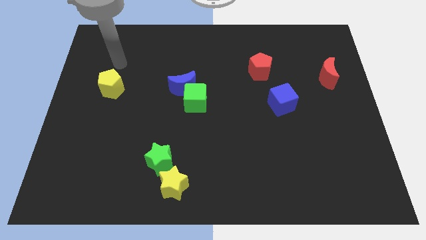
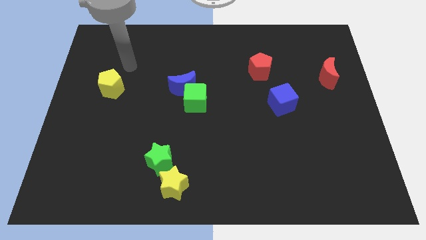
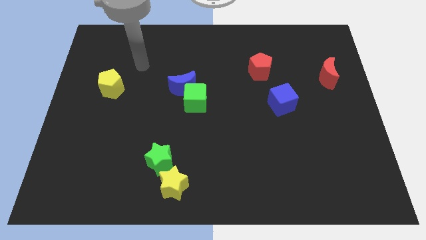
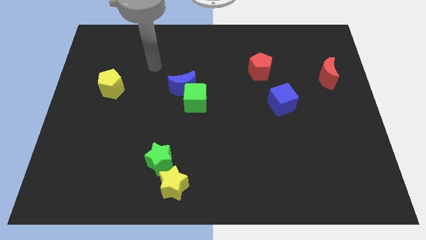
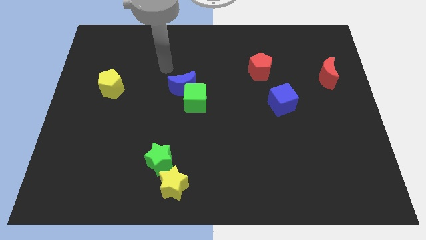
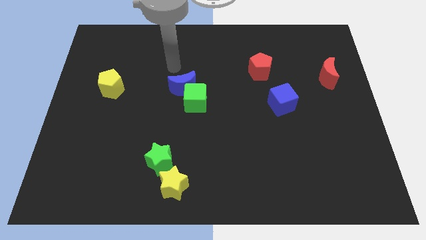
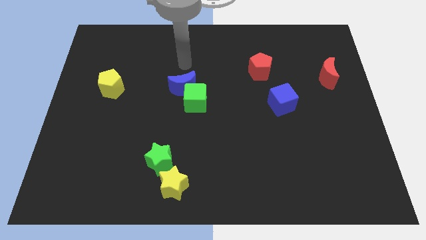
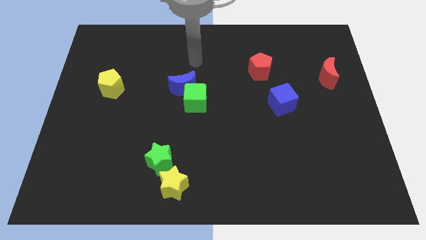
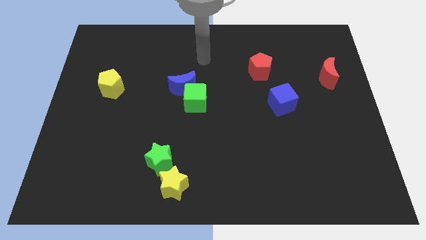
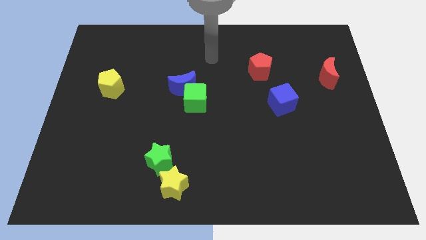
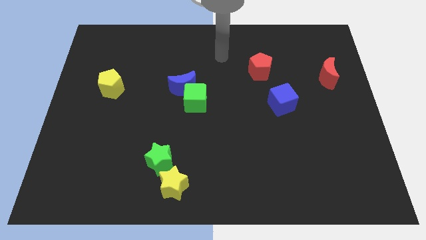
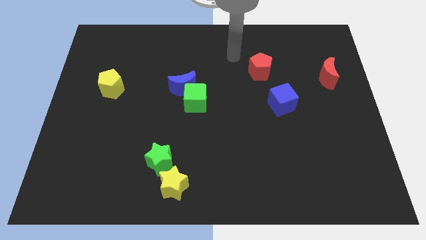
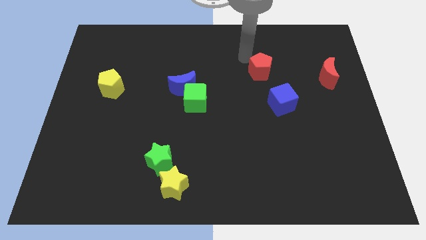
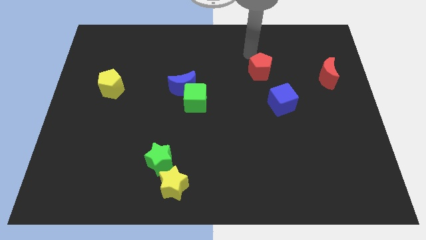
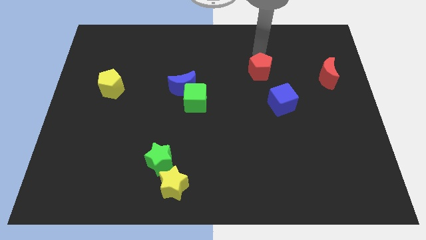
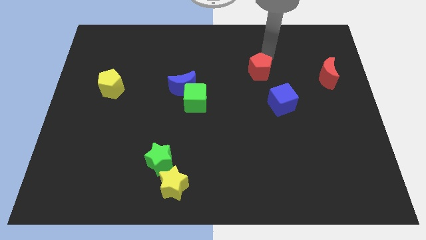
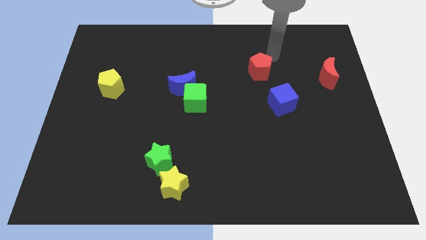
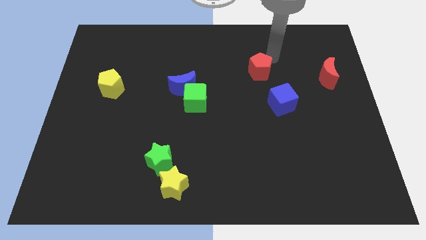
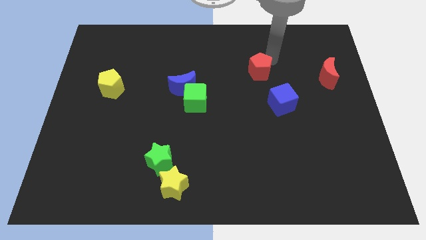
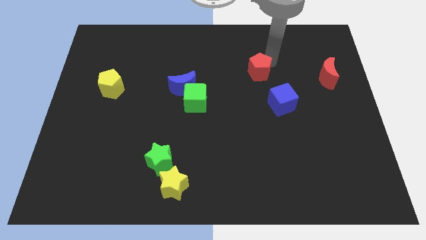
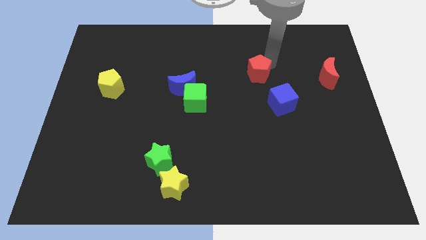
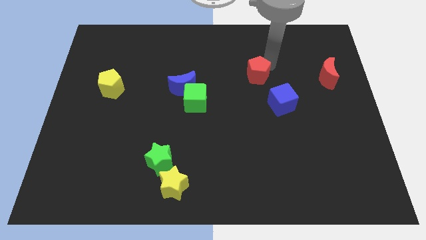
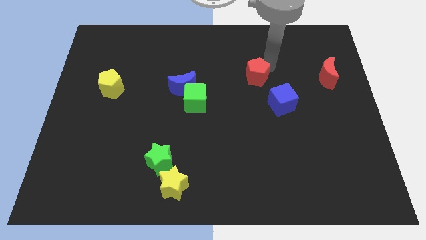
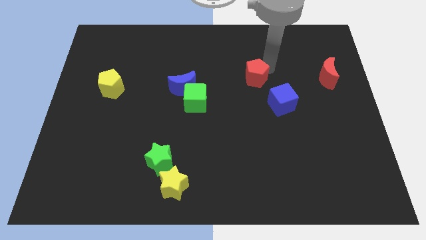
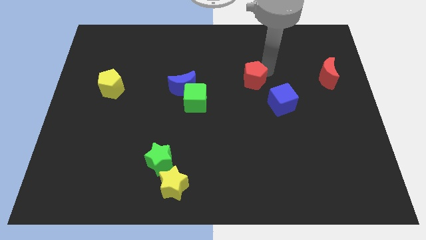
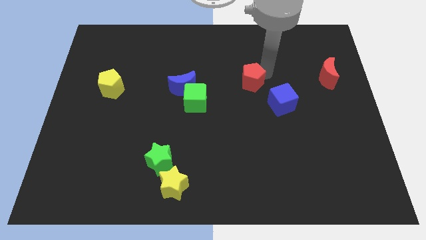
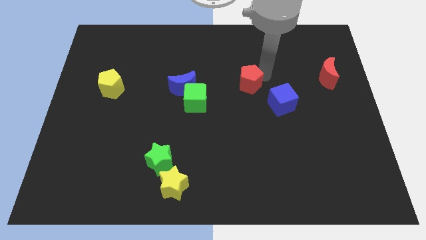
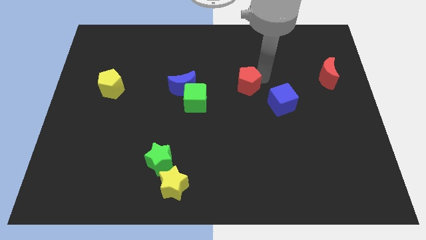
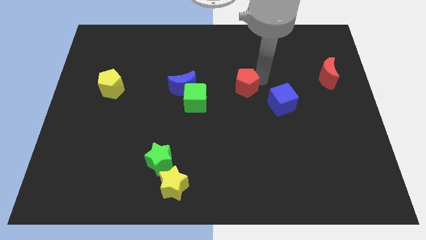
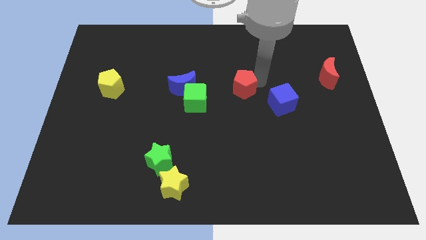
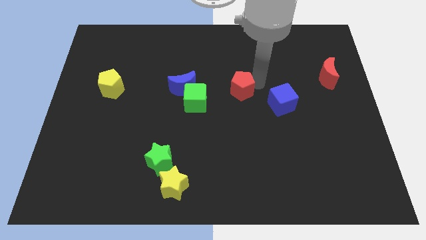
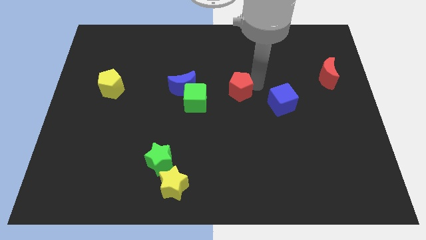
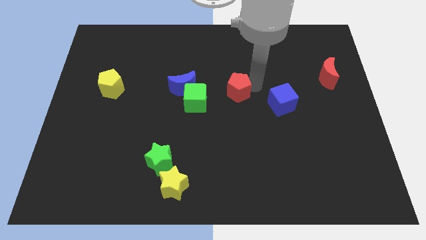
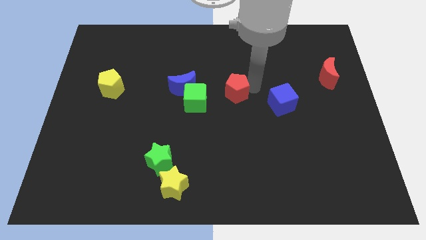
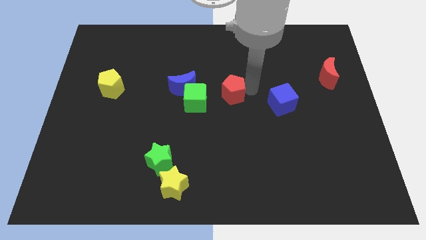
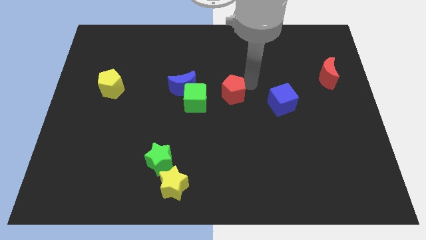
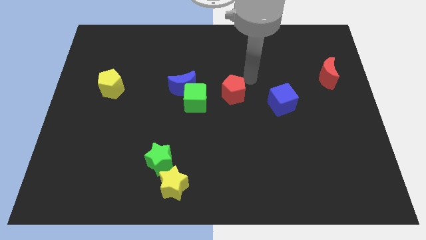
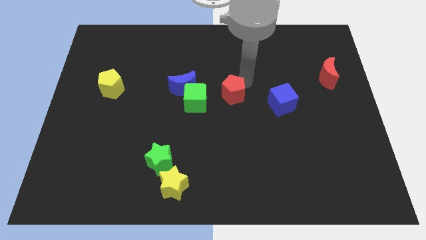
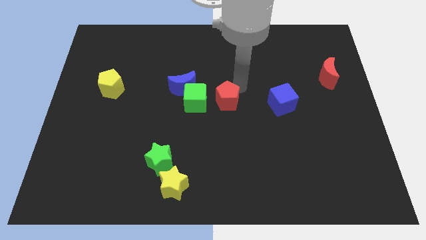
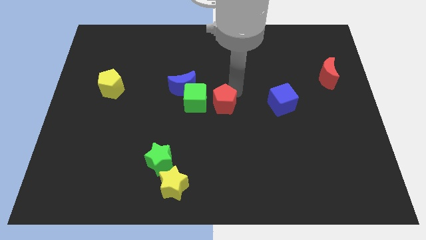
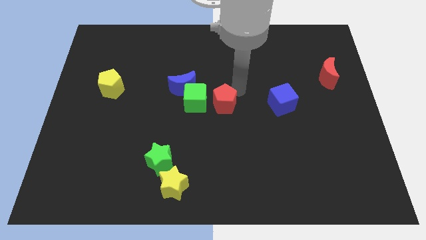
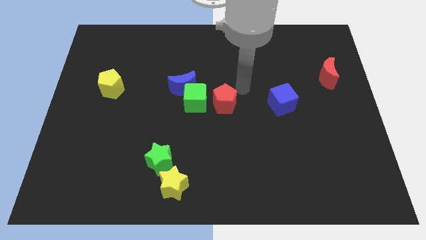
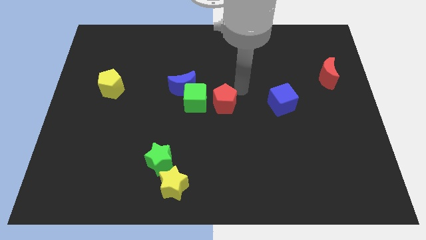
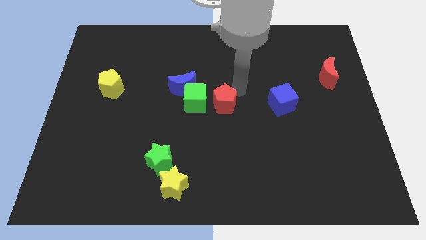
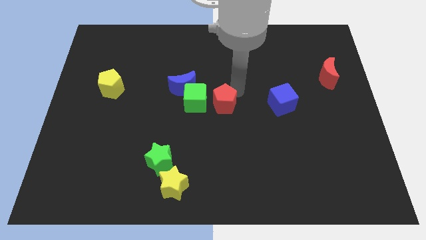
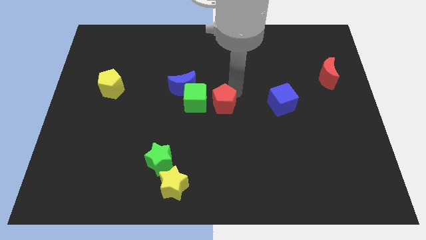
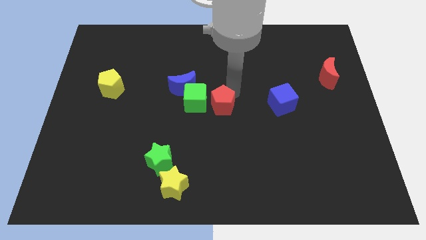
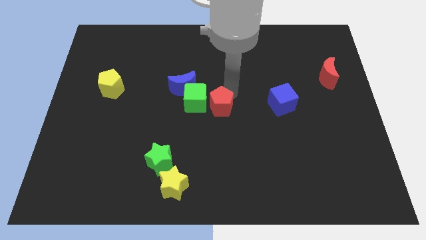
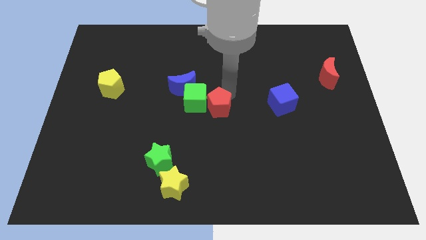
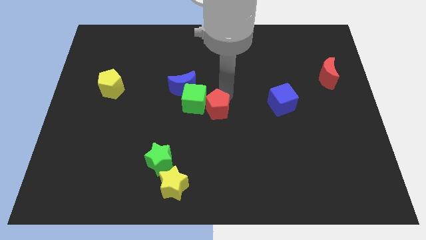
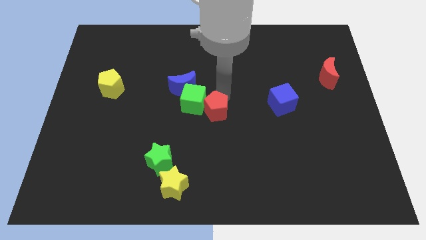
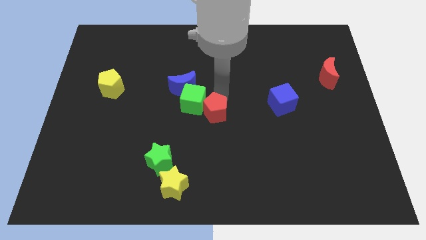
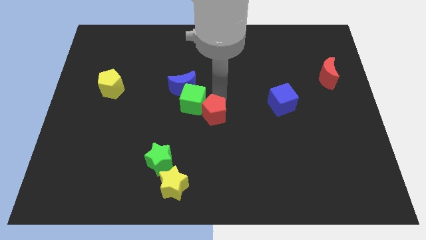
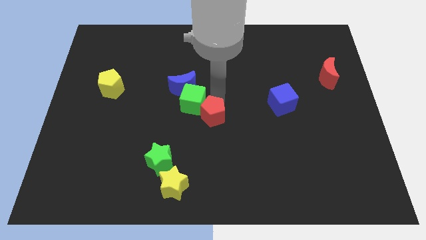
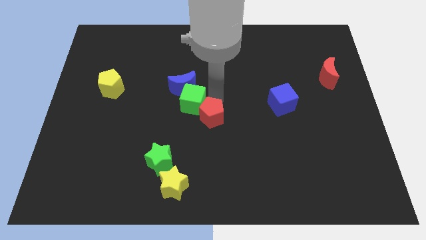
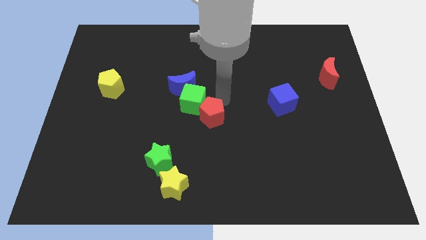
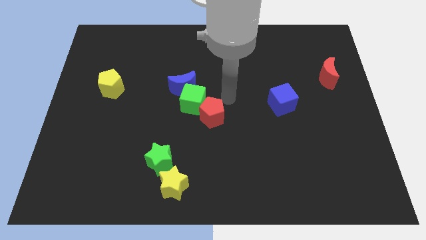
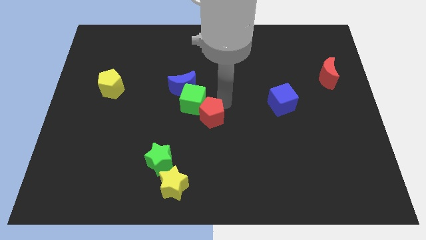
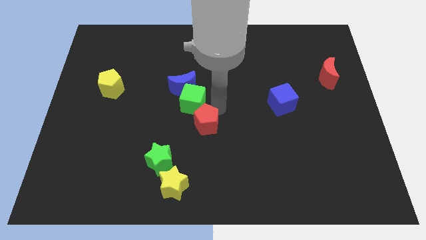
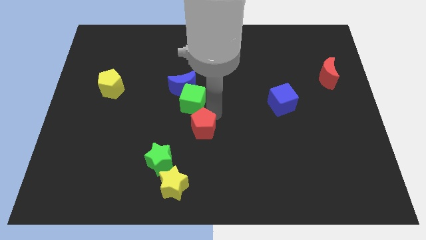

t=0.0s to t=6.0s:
move the red pentagon to the top right of the green star

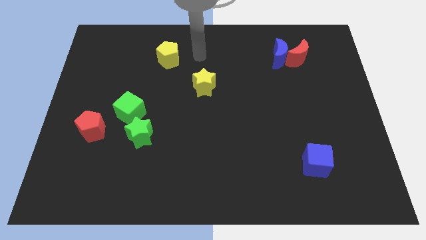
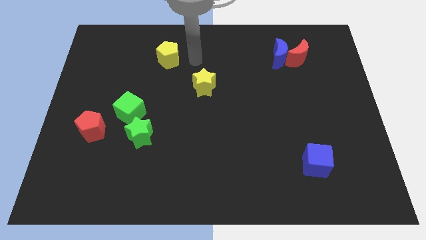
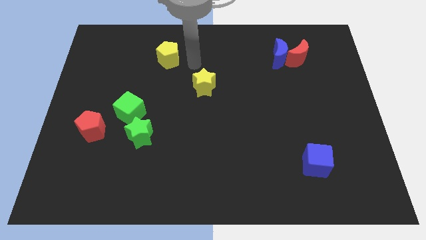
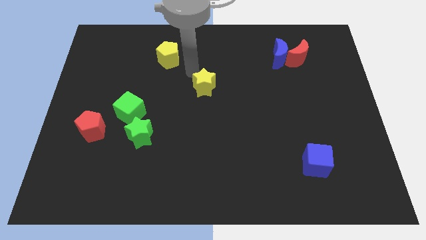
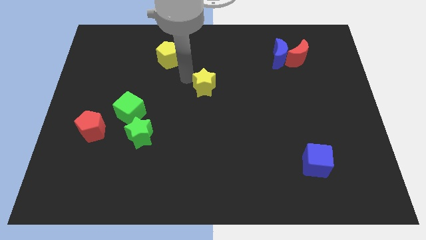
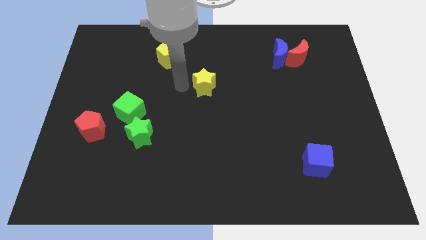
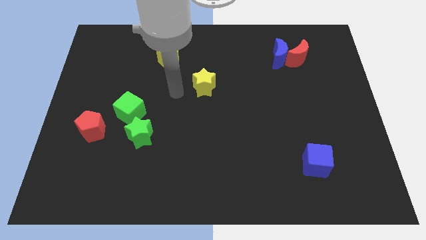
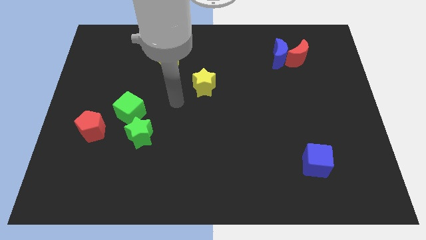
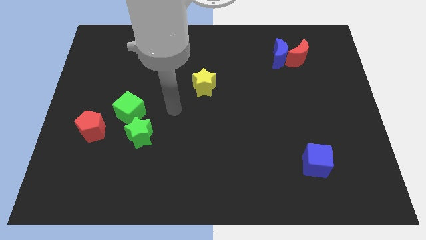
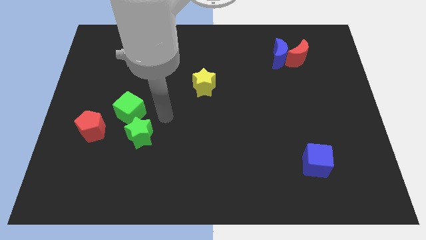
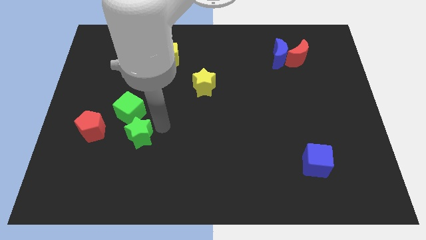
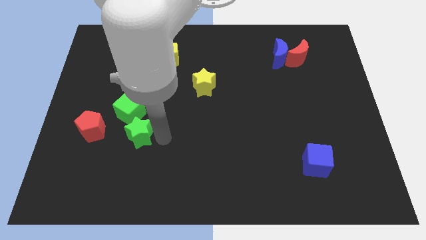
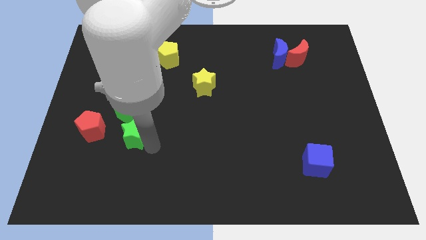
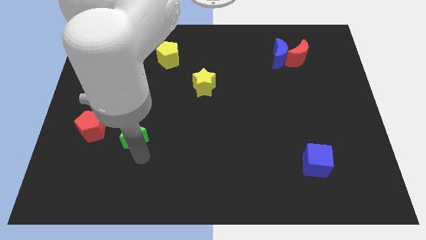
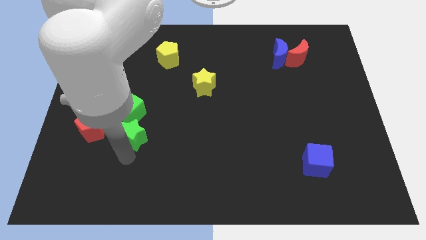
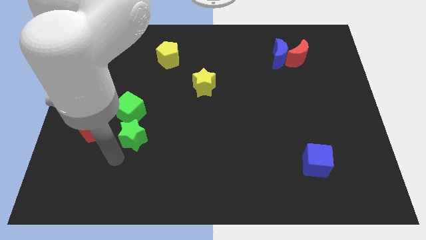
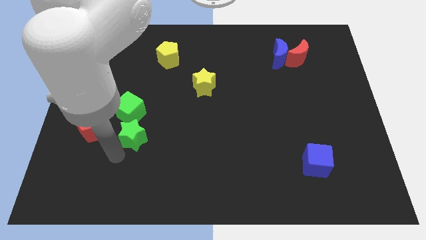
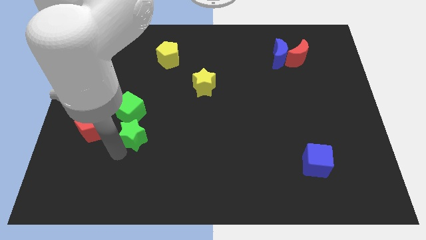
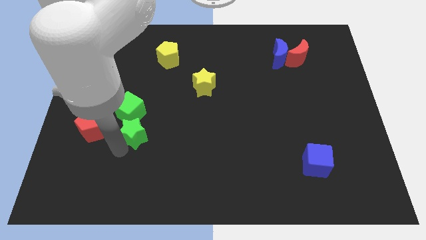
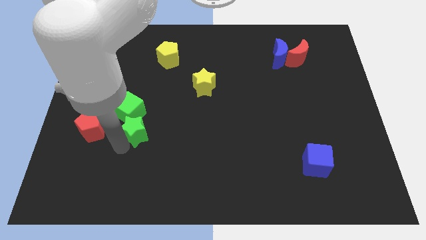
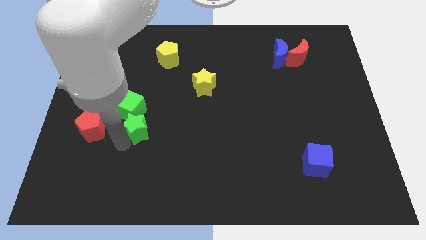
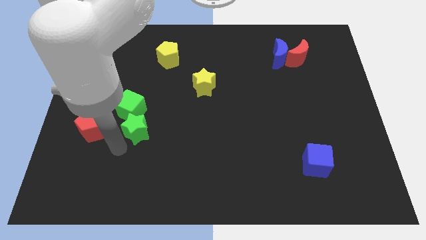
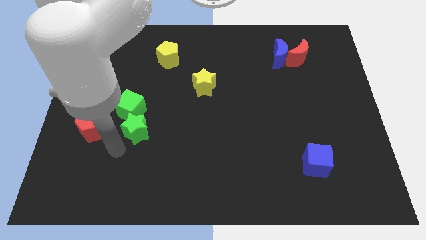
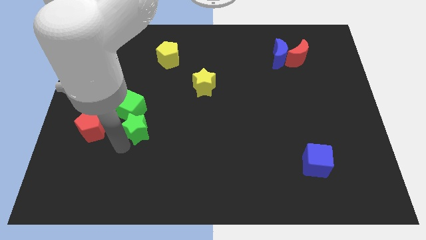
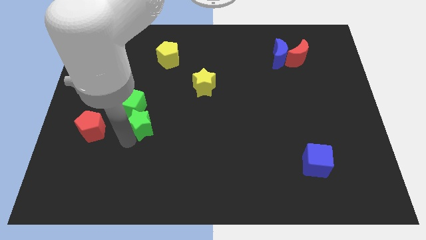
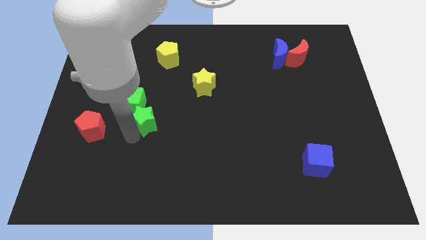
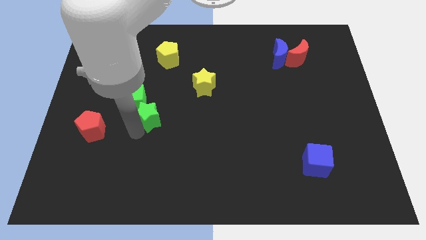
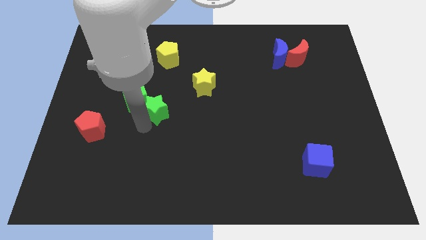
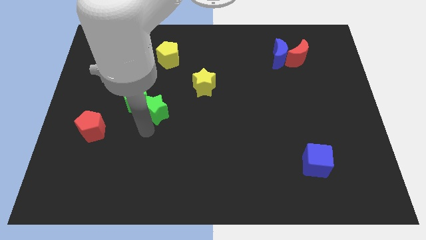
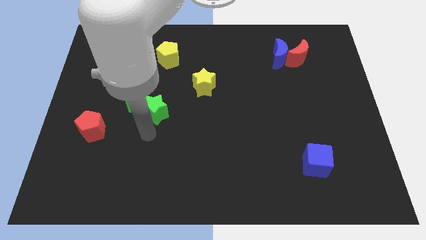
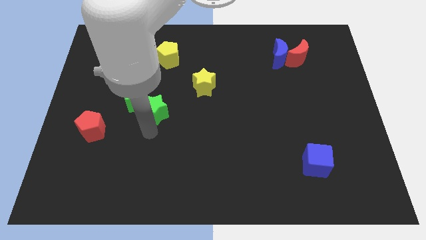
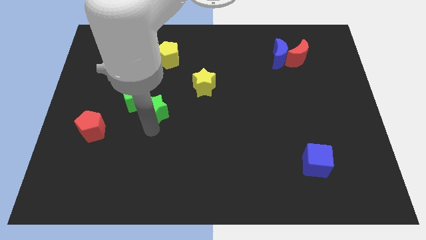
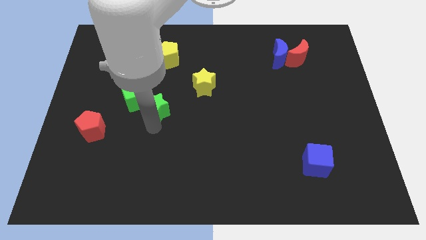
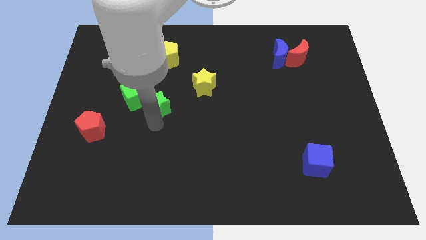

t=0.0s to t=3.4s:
push the green star below the yellow pentagon
